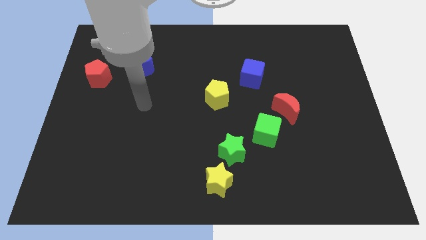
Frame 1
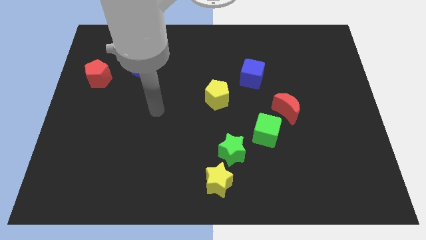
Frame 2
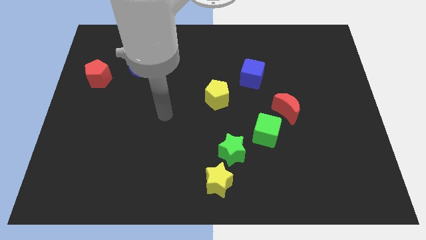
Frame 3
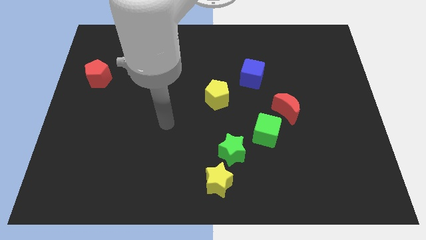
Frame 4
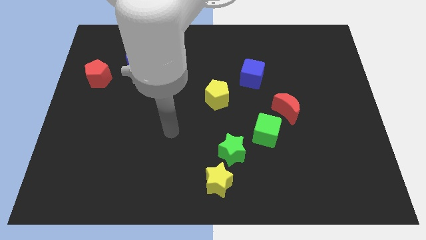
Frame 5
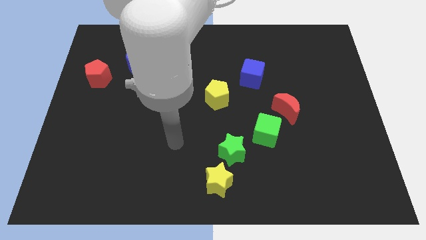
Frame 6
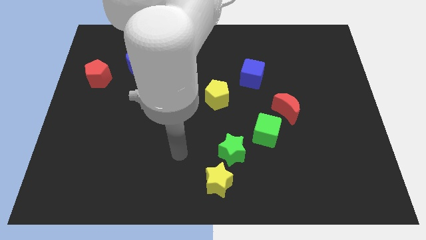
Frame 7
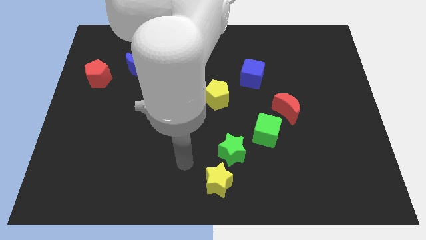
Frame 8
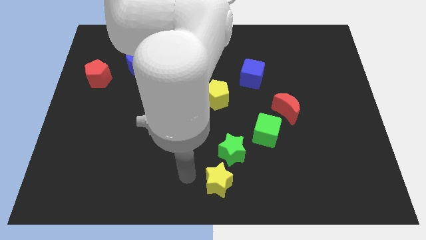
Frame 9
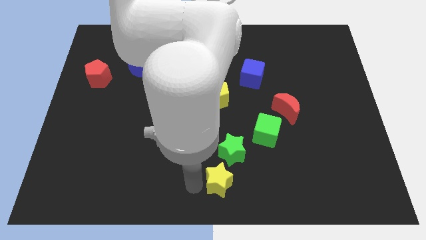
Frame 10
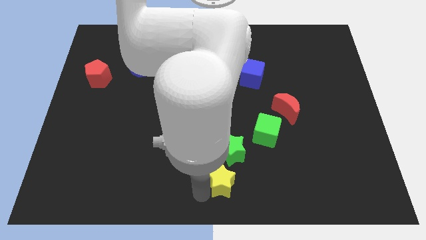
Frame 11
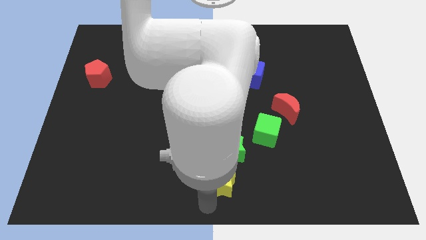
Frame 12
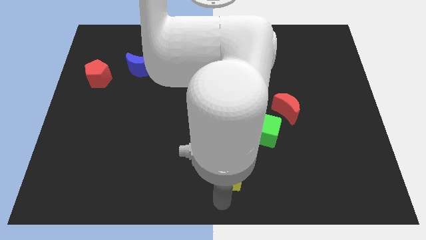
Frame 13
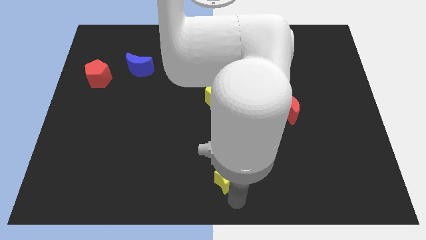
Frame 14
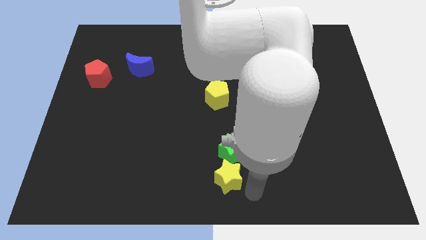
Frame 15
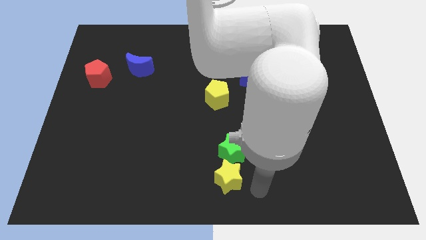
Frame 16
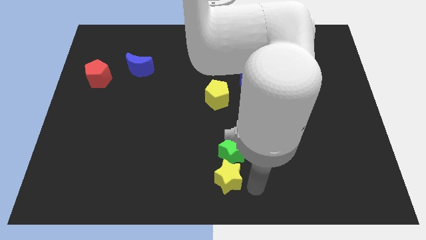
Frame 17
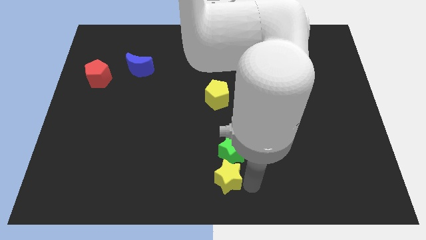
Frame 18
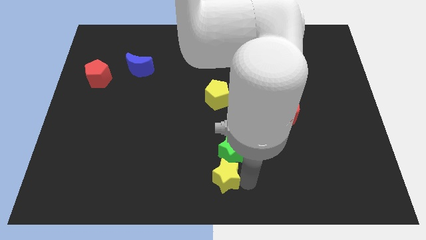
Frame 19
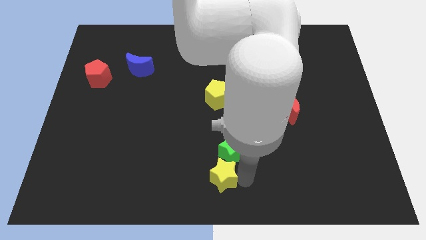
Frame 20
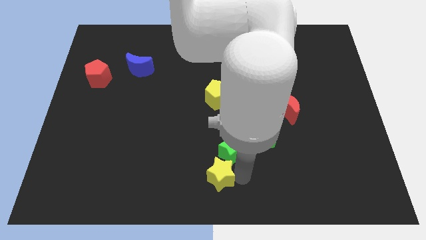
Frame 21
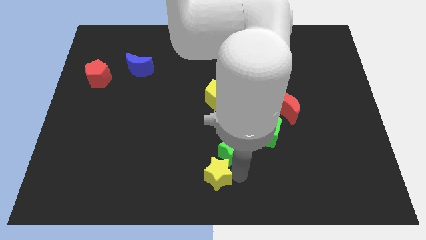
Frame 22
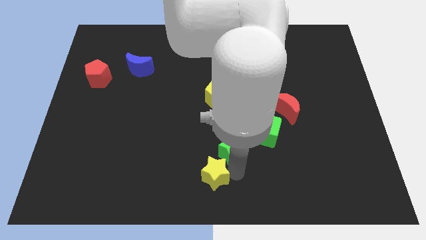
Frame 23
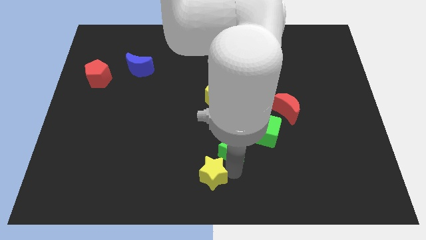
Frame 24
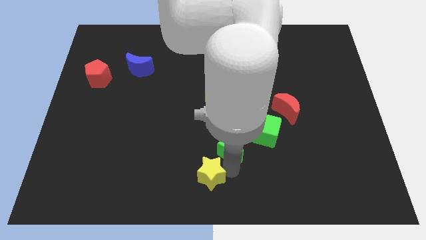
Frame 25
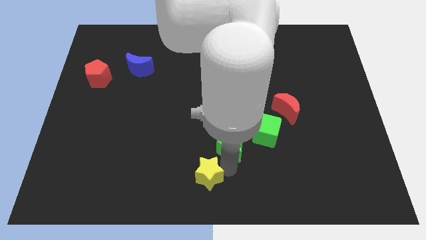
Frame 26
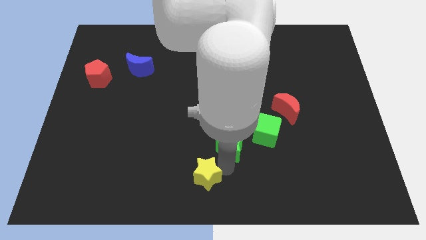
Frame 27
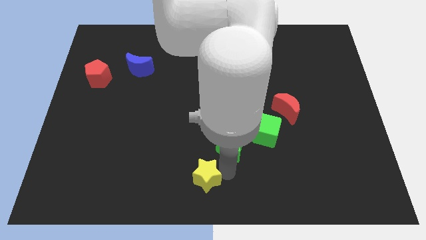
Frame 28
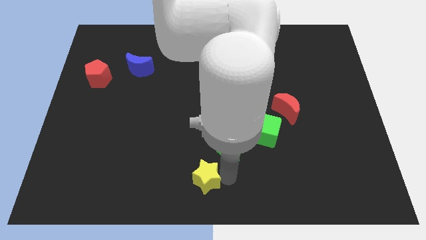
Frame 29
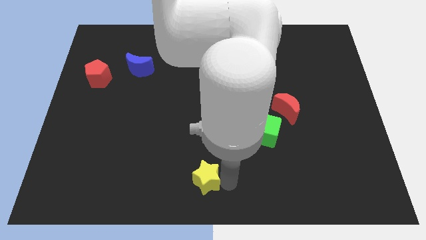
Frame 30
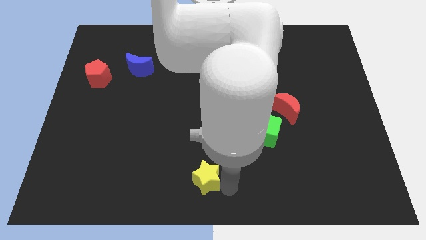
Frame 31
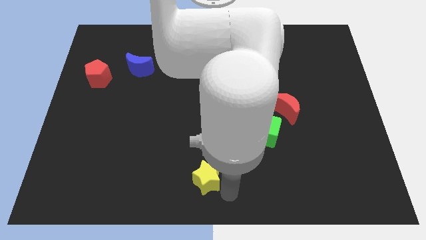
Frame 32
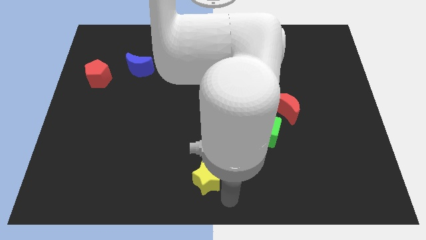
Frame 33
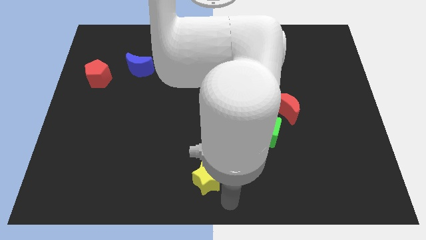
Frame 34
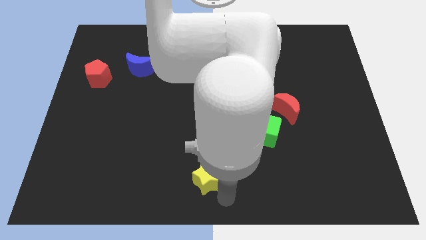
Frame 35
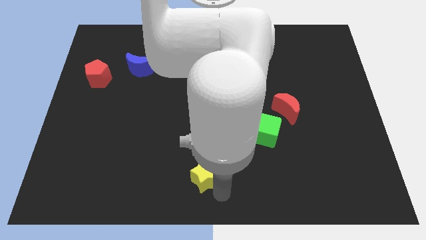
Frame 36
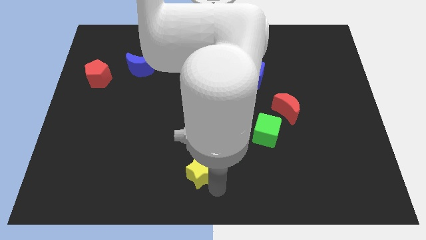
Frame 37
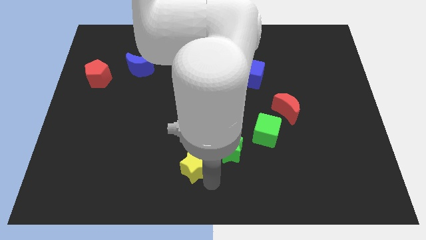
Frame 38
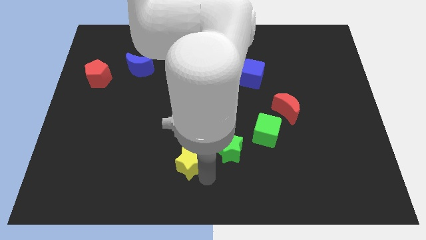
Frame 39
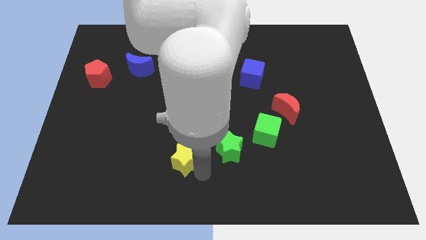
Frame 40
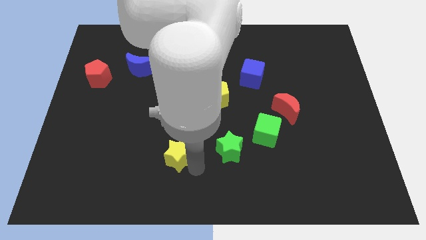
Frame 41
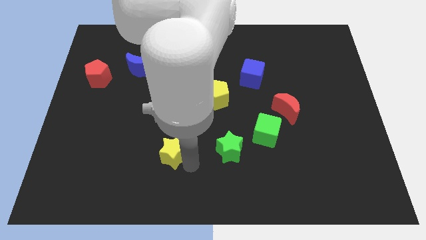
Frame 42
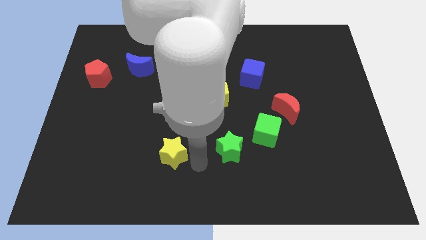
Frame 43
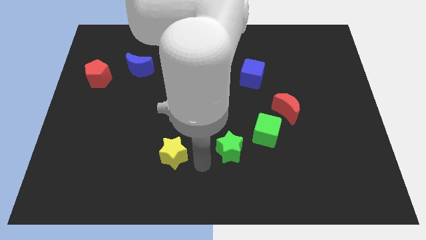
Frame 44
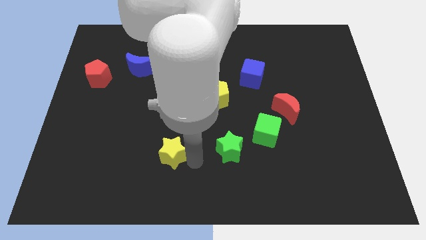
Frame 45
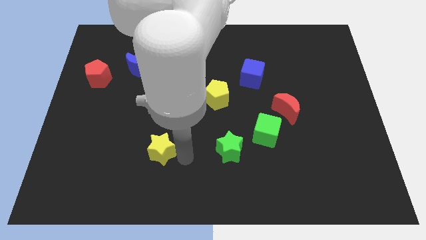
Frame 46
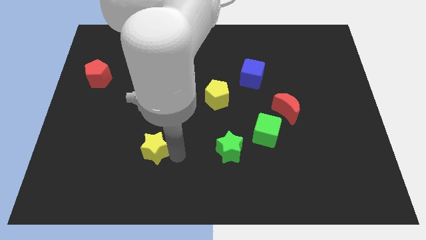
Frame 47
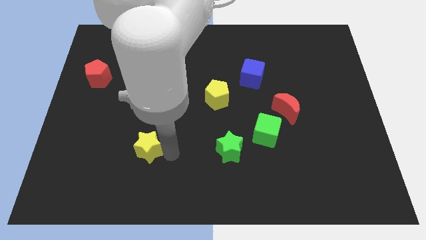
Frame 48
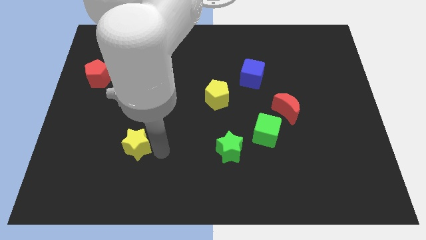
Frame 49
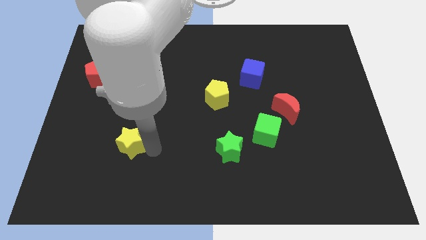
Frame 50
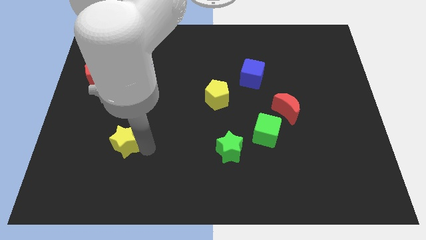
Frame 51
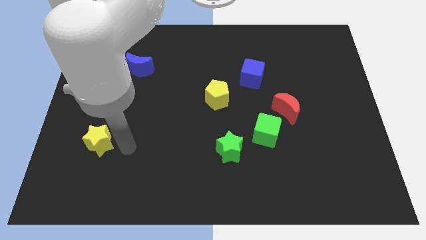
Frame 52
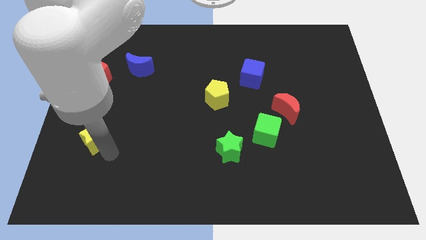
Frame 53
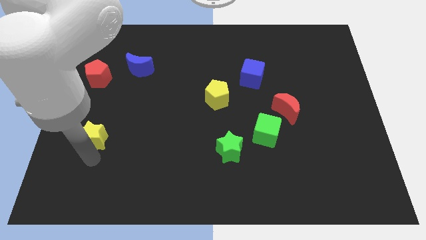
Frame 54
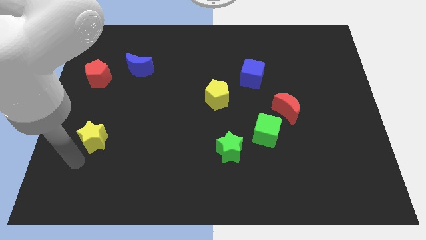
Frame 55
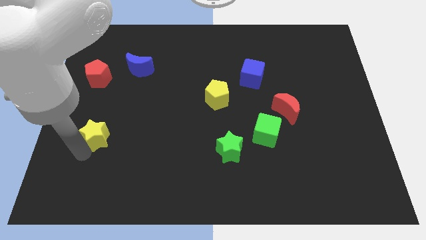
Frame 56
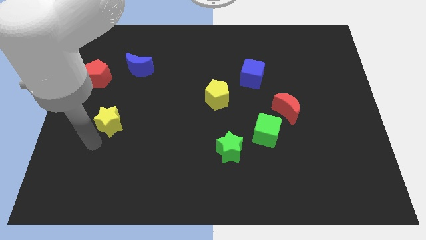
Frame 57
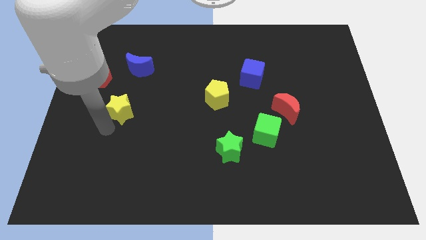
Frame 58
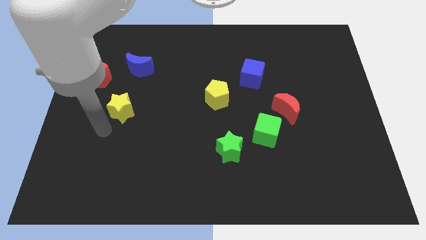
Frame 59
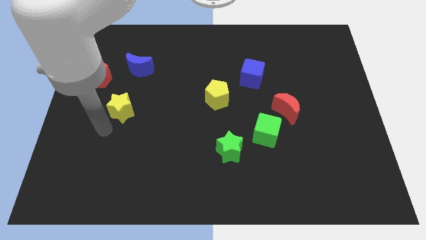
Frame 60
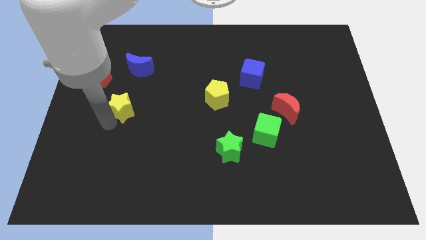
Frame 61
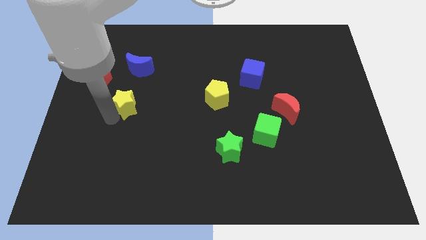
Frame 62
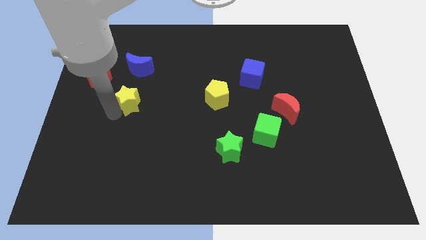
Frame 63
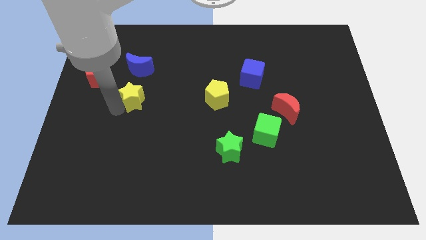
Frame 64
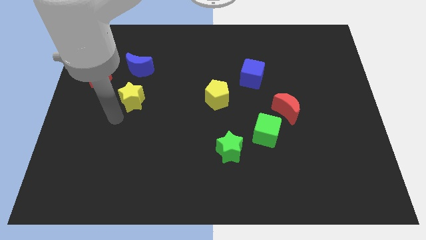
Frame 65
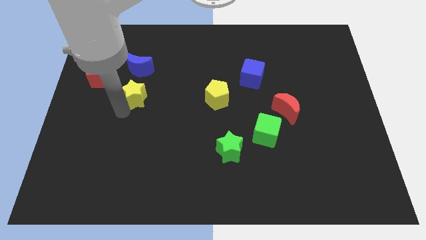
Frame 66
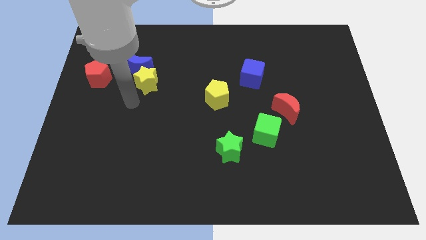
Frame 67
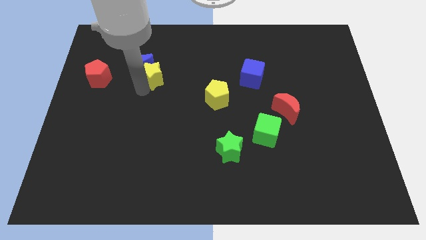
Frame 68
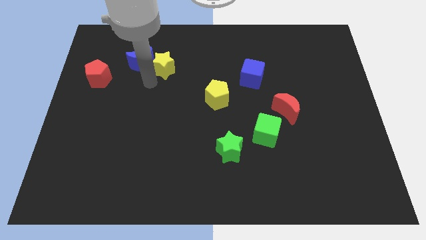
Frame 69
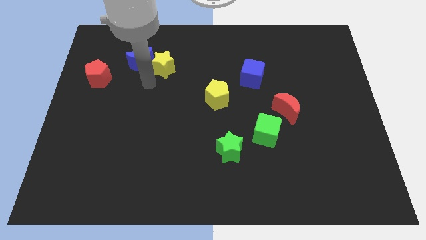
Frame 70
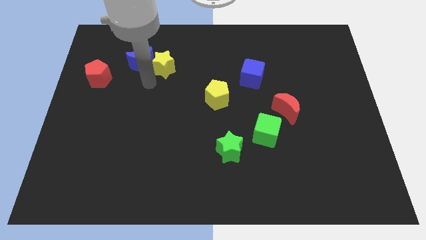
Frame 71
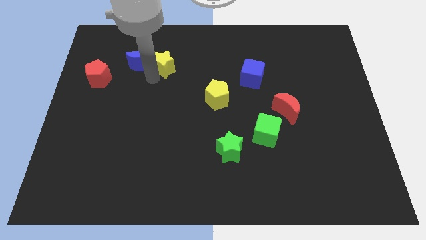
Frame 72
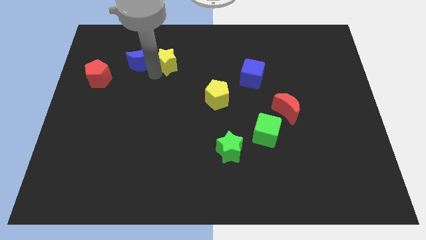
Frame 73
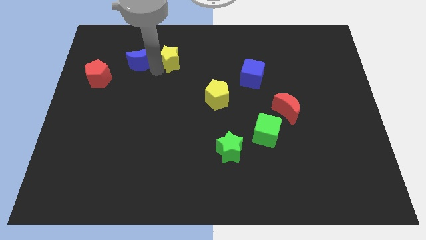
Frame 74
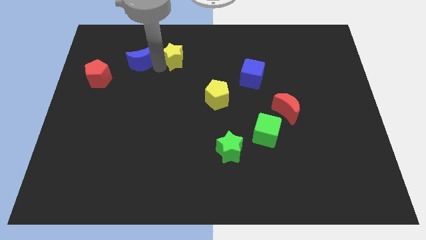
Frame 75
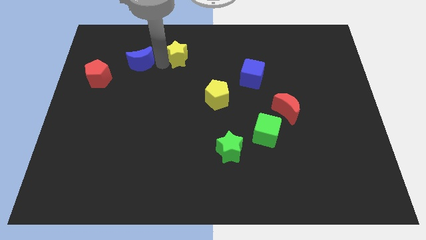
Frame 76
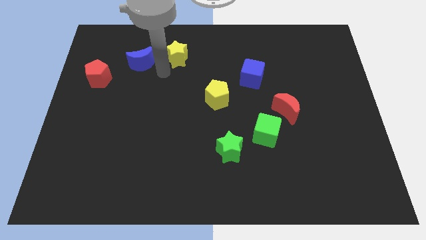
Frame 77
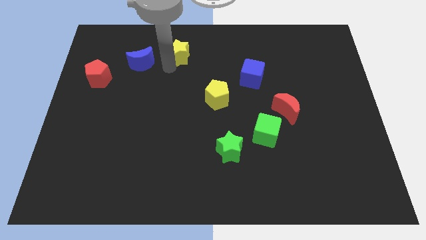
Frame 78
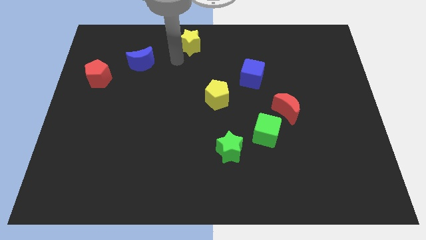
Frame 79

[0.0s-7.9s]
put the yellow star to the top
